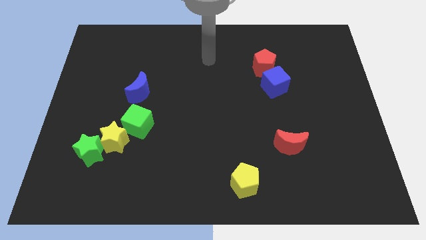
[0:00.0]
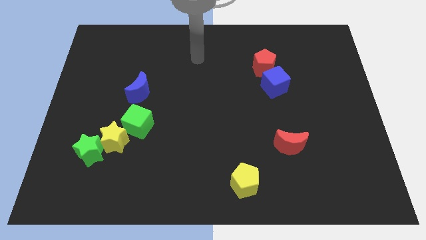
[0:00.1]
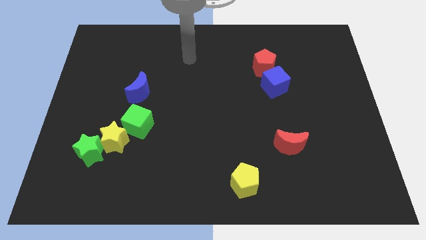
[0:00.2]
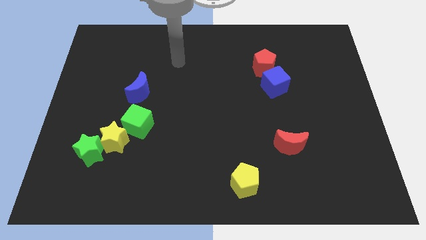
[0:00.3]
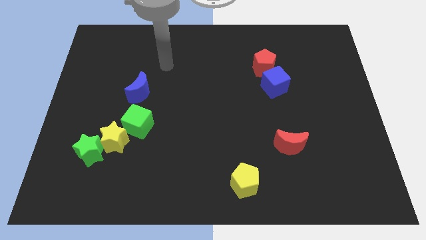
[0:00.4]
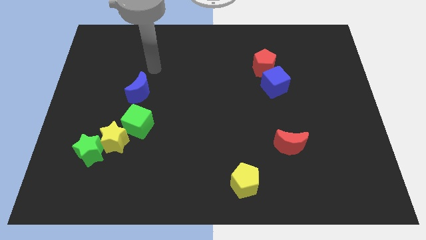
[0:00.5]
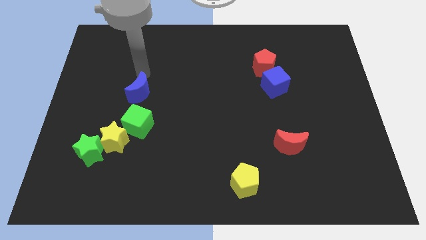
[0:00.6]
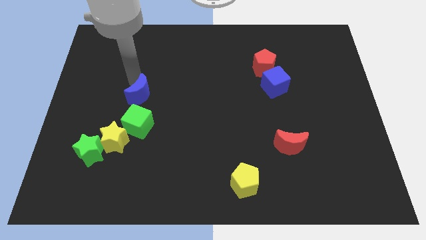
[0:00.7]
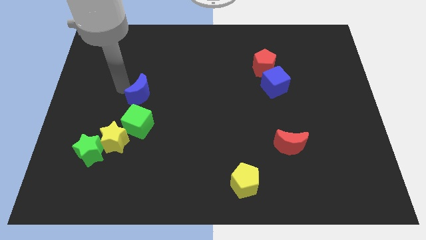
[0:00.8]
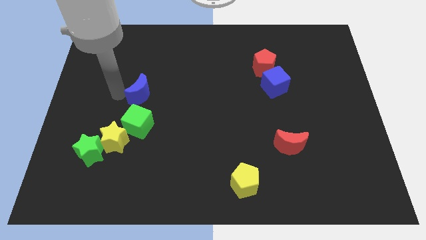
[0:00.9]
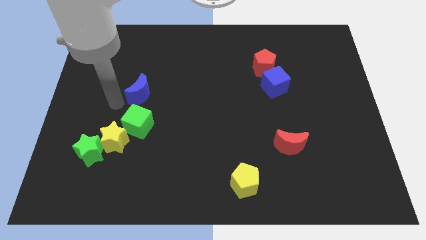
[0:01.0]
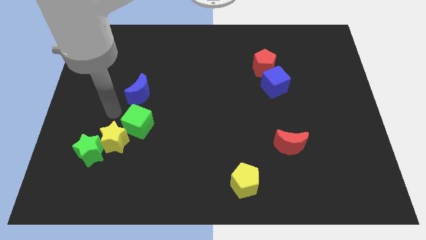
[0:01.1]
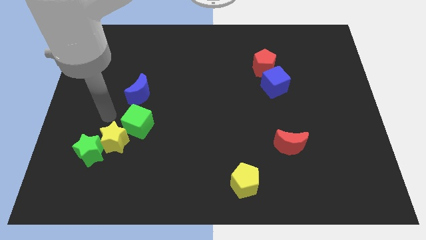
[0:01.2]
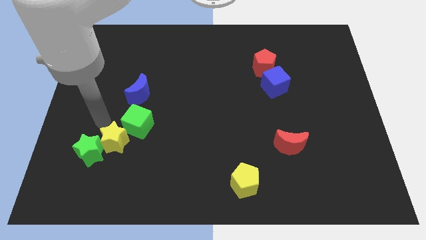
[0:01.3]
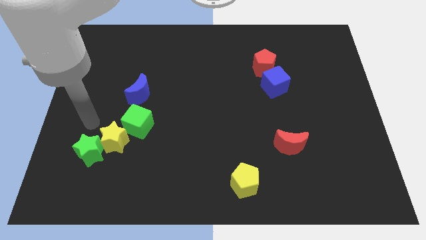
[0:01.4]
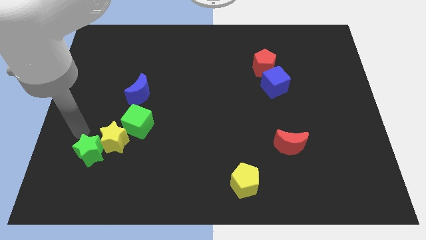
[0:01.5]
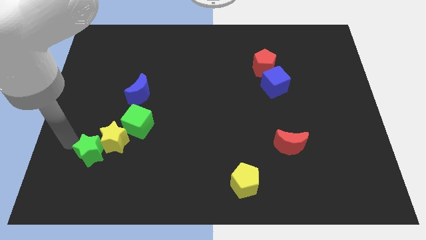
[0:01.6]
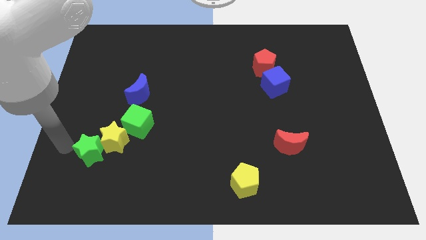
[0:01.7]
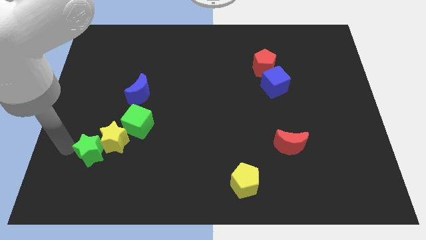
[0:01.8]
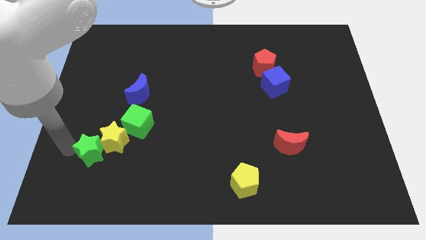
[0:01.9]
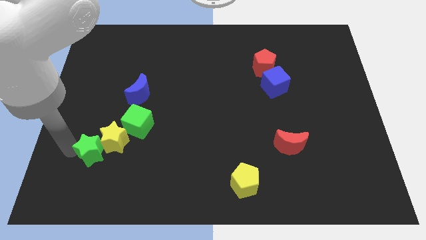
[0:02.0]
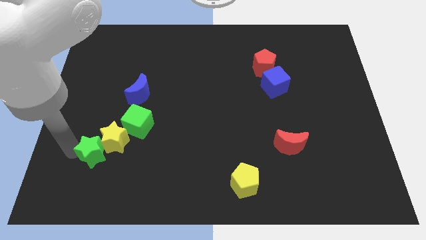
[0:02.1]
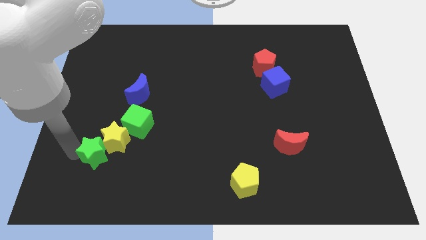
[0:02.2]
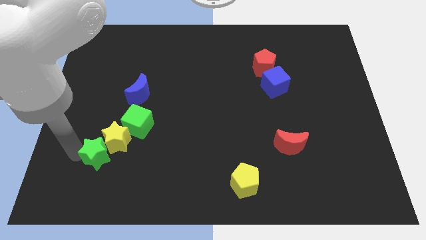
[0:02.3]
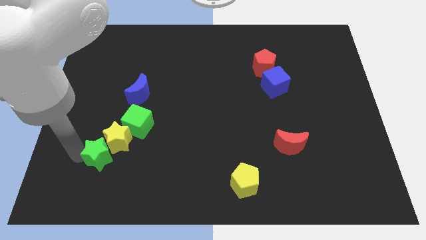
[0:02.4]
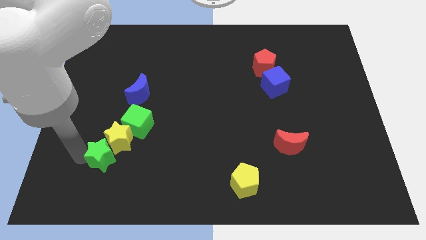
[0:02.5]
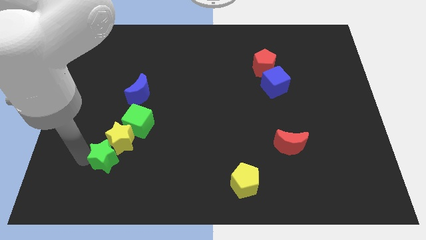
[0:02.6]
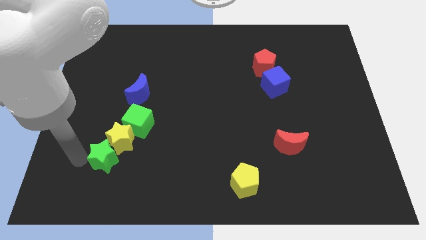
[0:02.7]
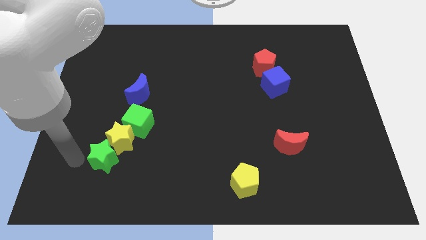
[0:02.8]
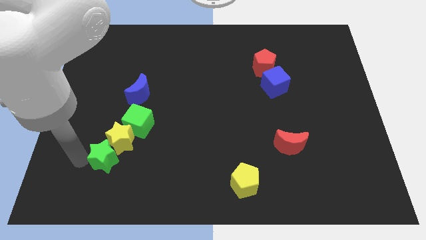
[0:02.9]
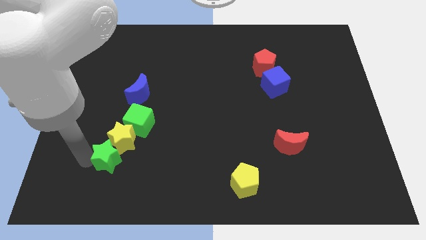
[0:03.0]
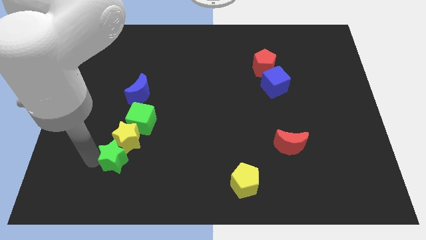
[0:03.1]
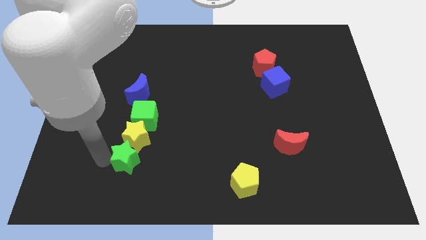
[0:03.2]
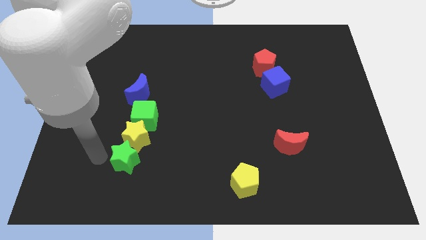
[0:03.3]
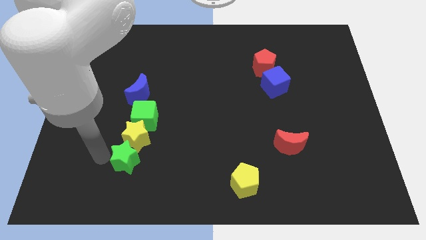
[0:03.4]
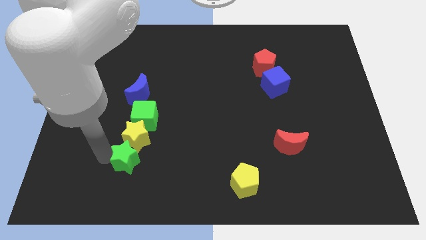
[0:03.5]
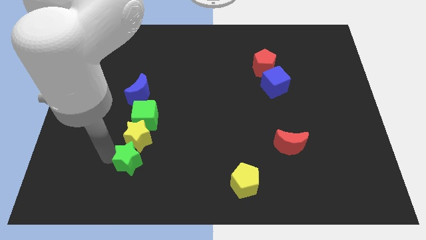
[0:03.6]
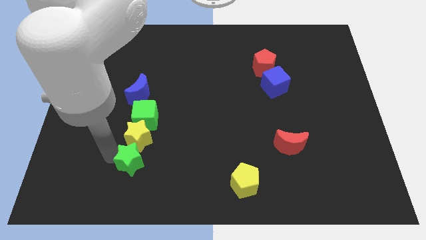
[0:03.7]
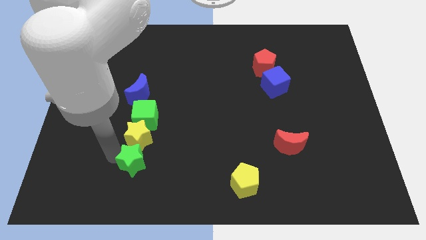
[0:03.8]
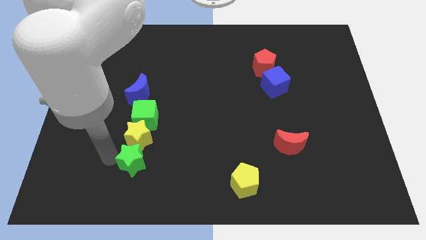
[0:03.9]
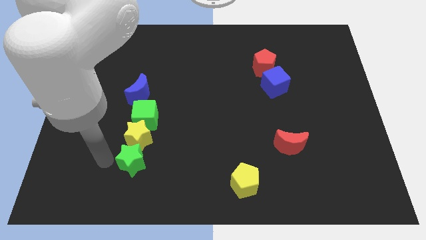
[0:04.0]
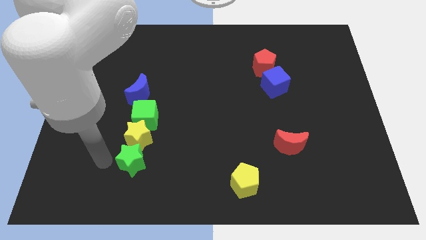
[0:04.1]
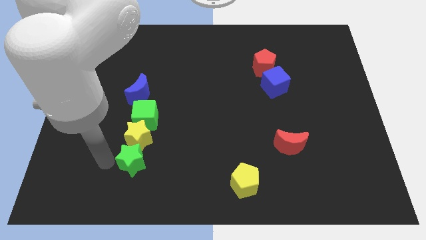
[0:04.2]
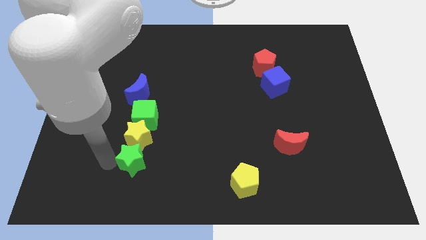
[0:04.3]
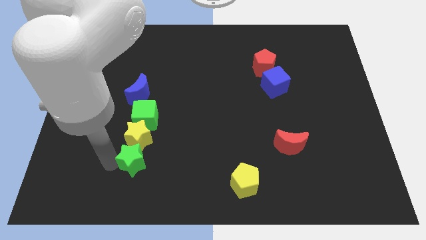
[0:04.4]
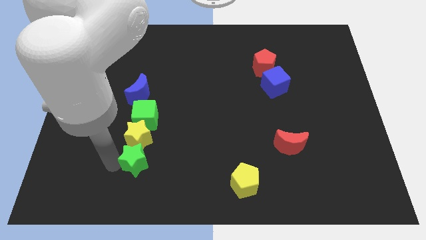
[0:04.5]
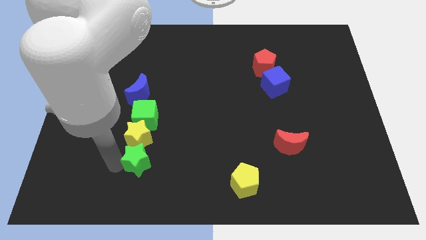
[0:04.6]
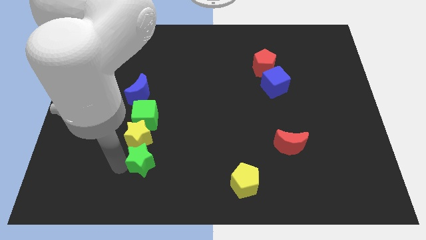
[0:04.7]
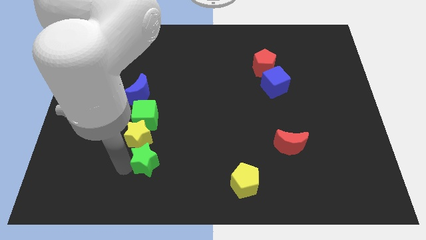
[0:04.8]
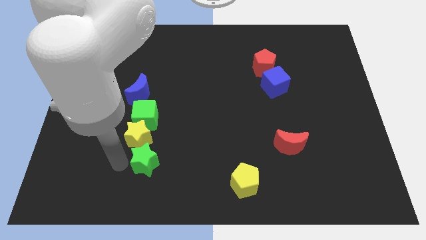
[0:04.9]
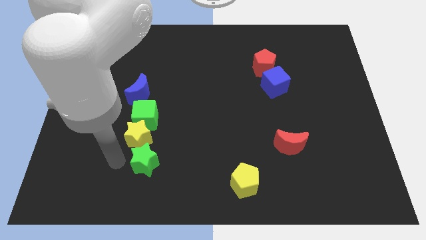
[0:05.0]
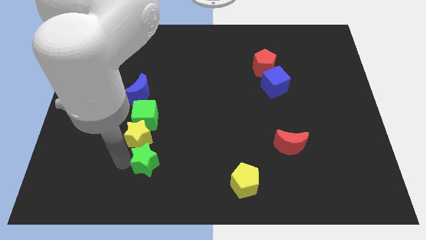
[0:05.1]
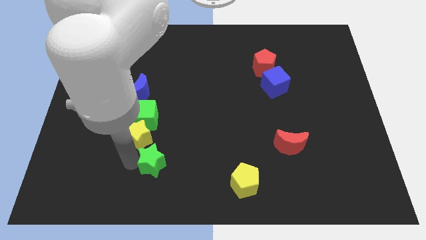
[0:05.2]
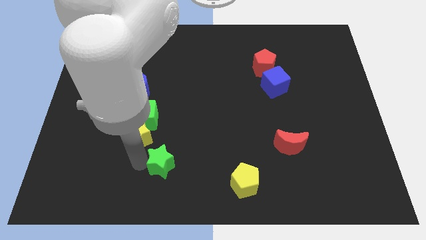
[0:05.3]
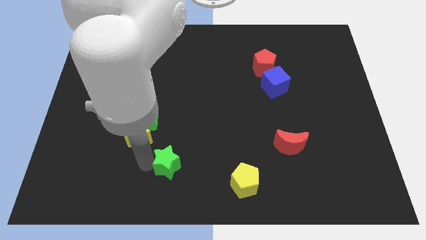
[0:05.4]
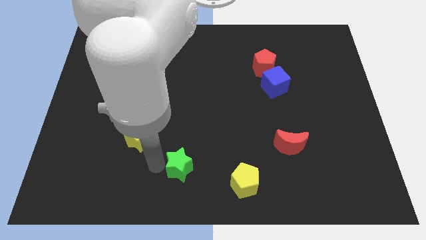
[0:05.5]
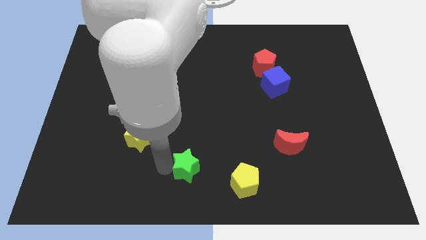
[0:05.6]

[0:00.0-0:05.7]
slide the green star to the right

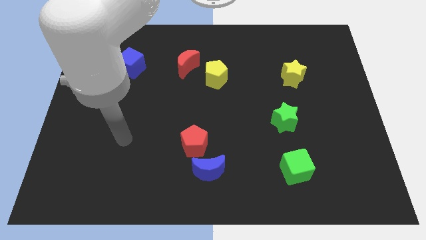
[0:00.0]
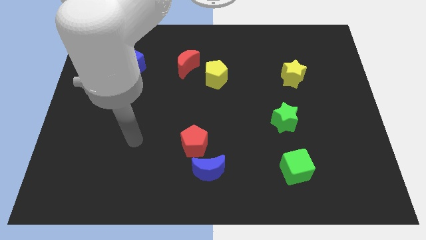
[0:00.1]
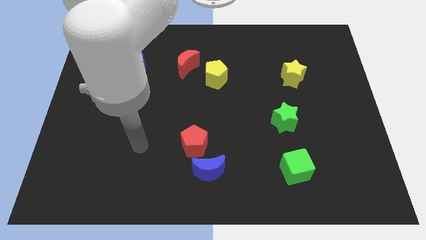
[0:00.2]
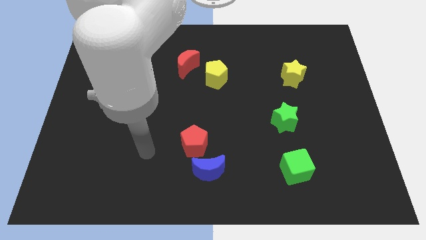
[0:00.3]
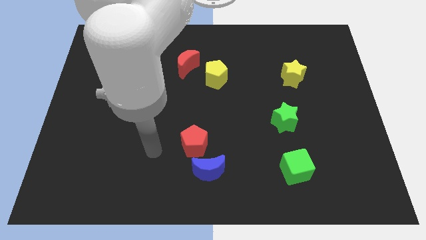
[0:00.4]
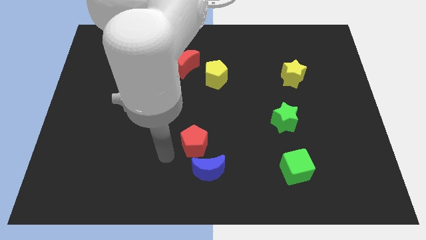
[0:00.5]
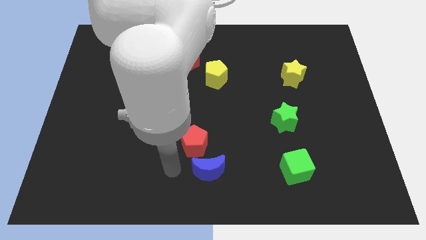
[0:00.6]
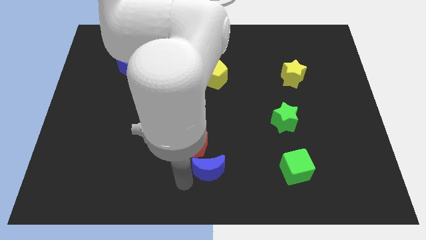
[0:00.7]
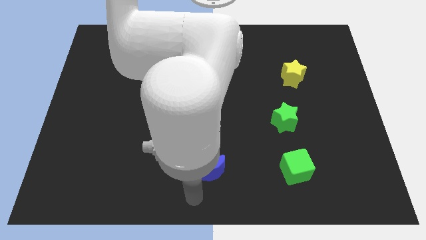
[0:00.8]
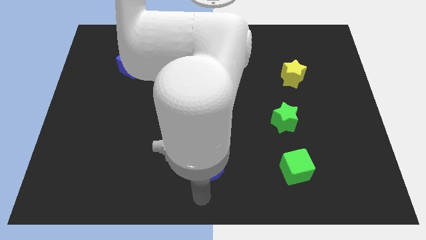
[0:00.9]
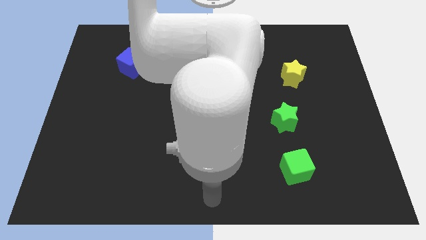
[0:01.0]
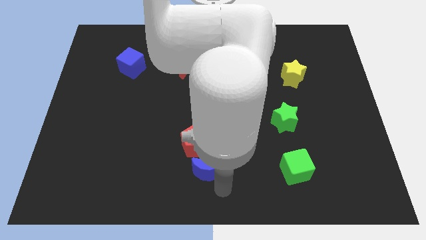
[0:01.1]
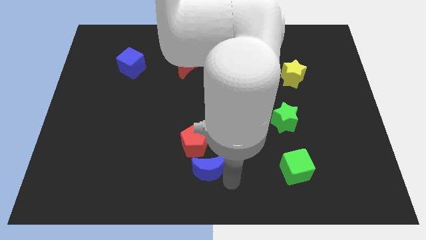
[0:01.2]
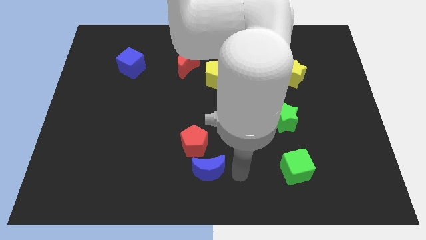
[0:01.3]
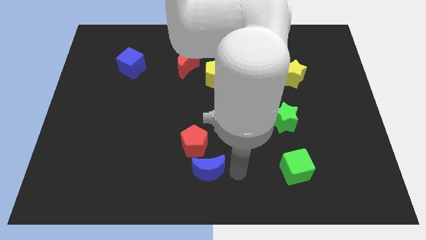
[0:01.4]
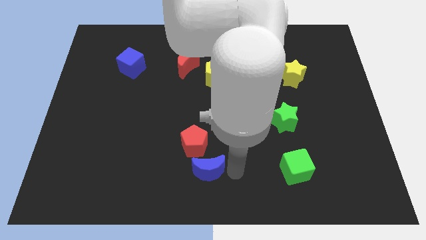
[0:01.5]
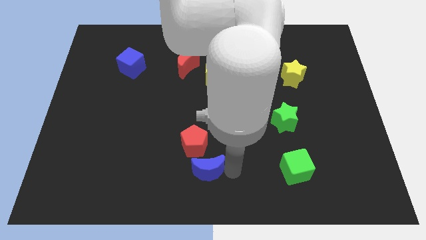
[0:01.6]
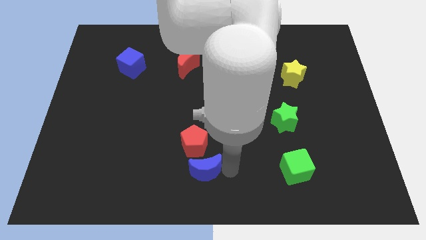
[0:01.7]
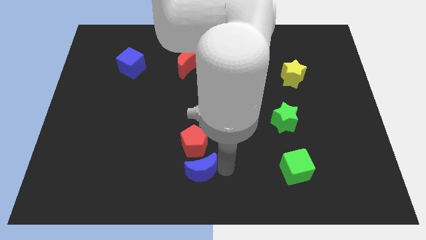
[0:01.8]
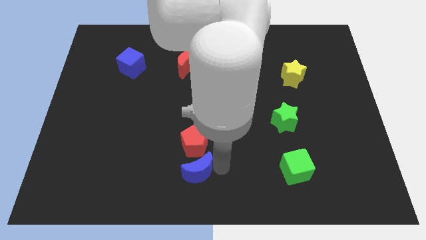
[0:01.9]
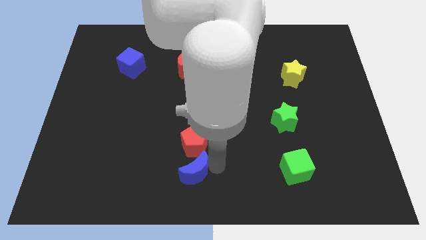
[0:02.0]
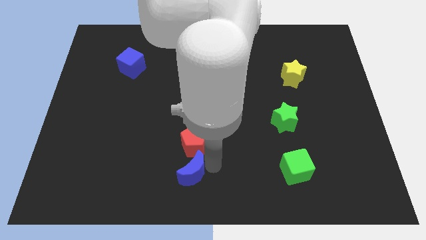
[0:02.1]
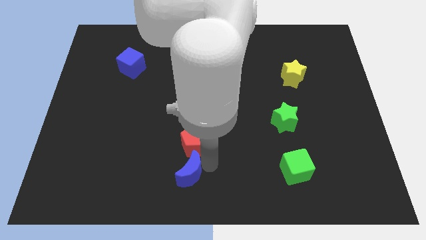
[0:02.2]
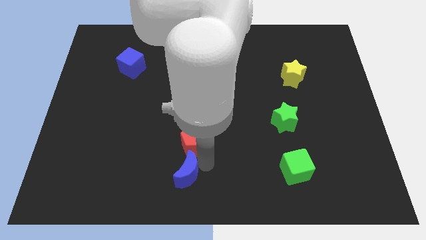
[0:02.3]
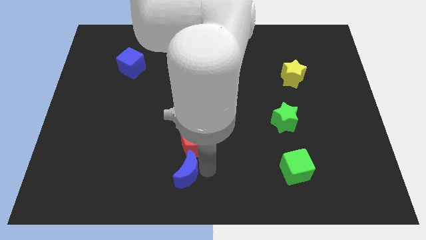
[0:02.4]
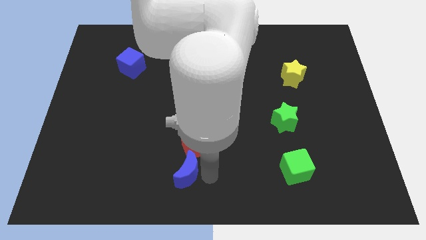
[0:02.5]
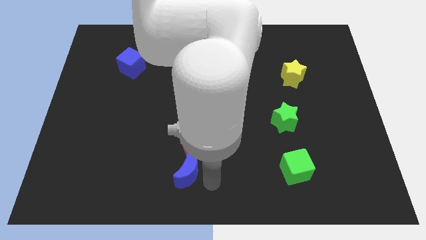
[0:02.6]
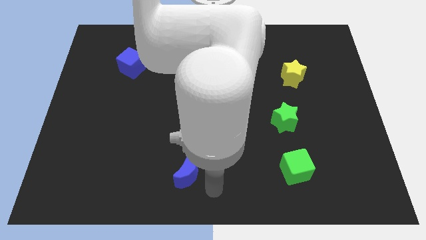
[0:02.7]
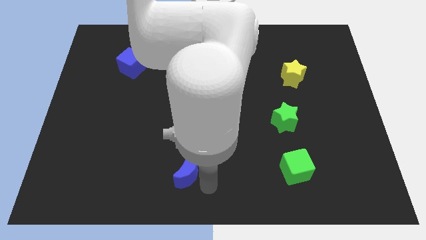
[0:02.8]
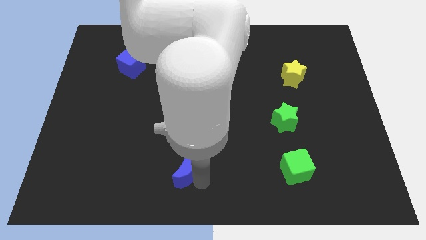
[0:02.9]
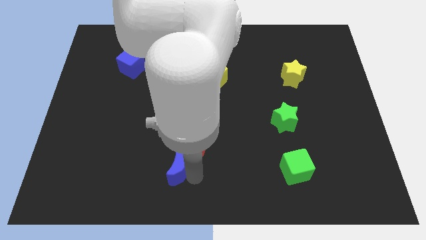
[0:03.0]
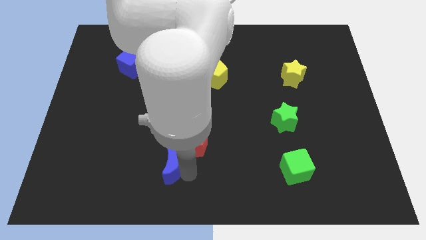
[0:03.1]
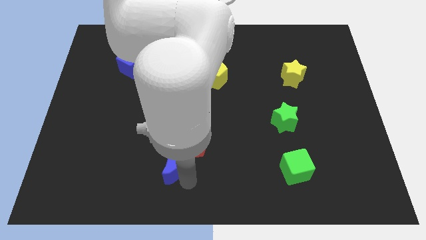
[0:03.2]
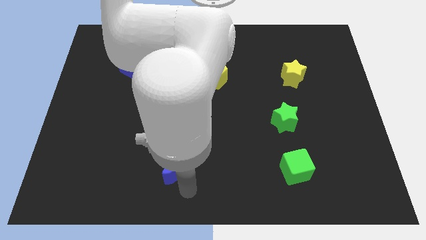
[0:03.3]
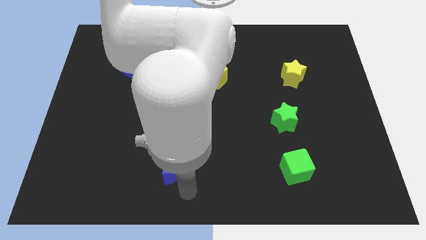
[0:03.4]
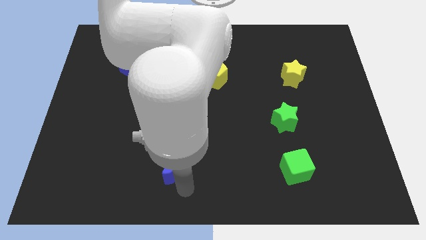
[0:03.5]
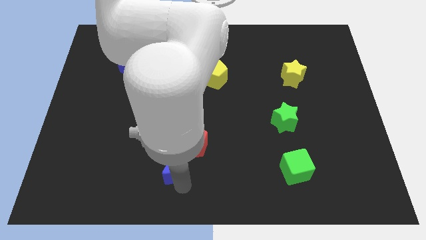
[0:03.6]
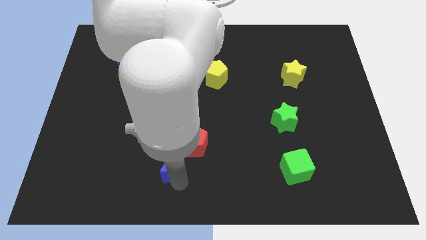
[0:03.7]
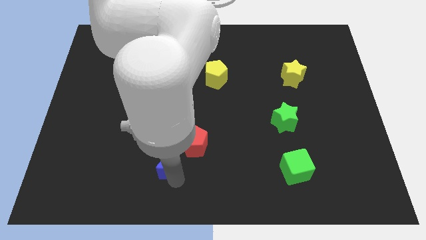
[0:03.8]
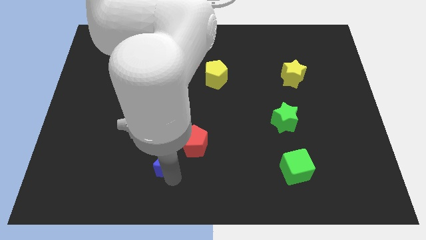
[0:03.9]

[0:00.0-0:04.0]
push the blue moon diagonally up and left a little bit
